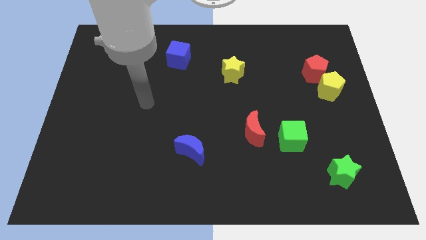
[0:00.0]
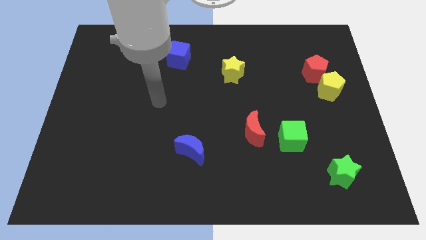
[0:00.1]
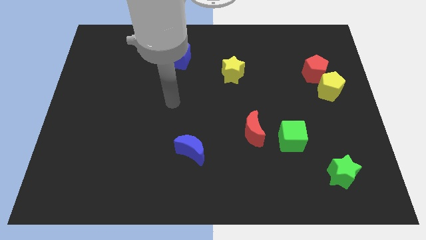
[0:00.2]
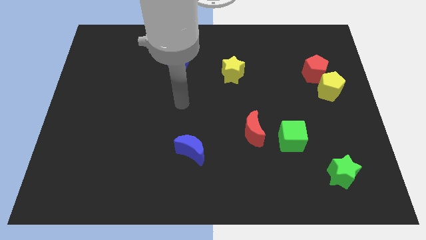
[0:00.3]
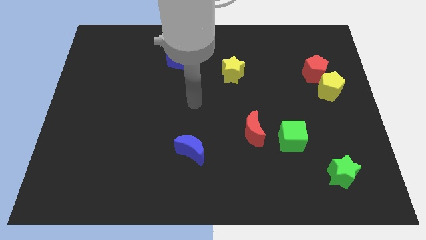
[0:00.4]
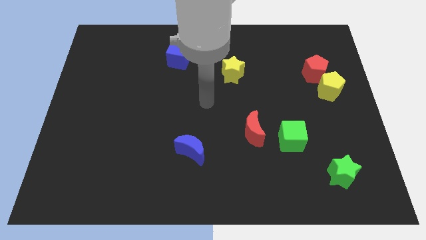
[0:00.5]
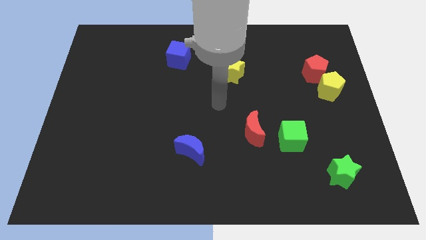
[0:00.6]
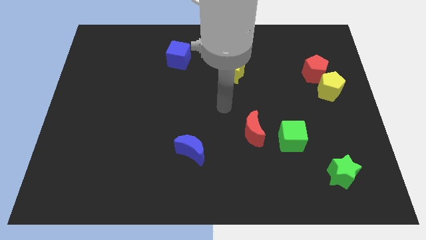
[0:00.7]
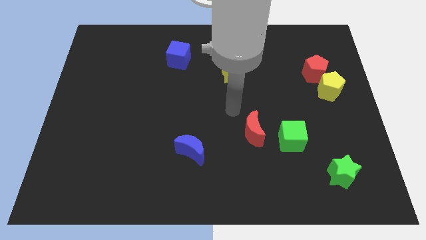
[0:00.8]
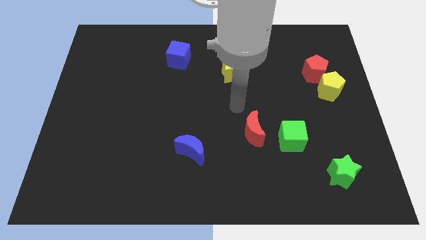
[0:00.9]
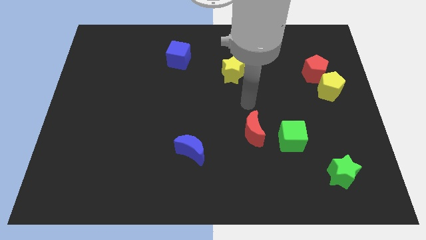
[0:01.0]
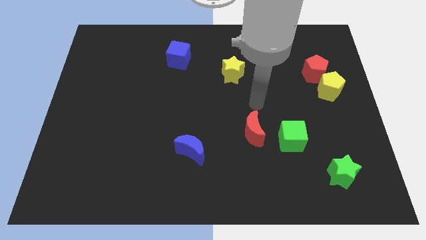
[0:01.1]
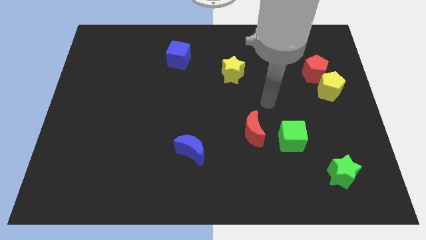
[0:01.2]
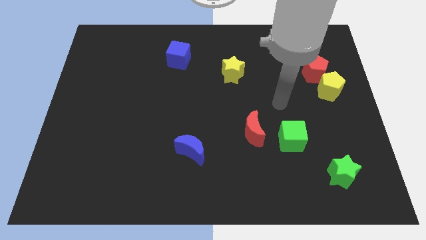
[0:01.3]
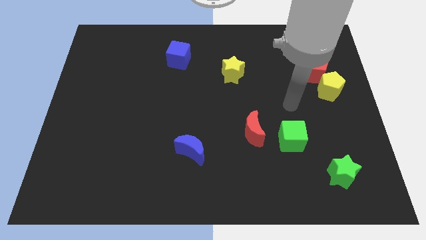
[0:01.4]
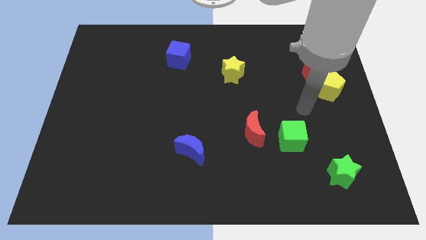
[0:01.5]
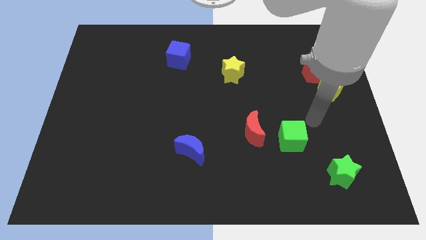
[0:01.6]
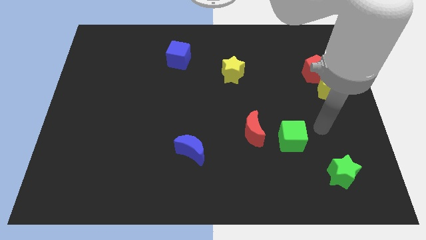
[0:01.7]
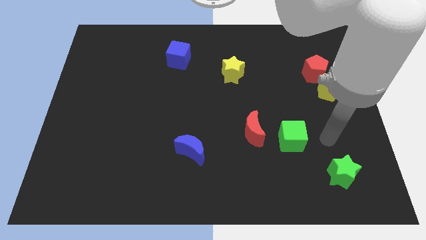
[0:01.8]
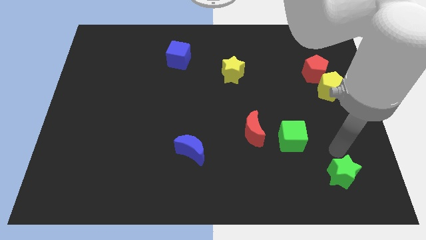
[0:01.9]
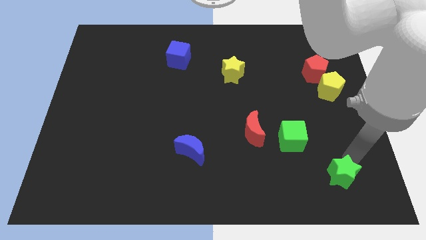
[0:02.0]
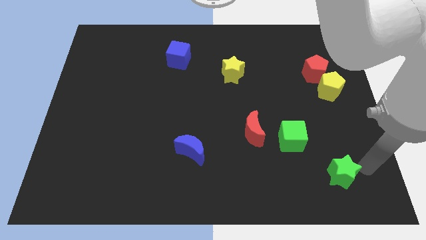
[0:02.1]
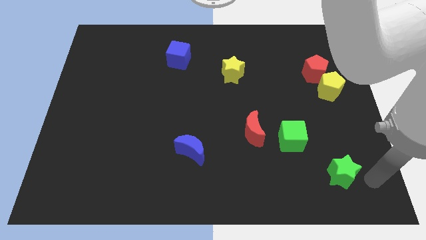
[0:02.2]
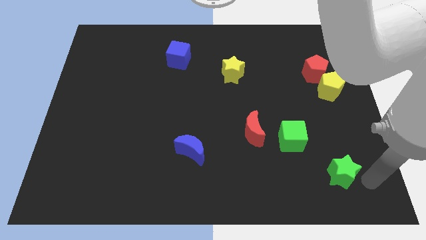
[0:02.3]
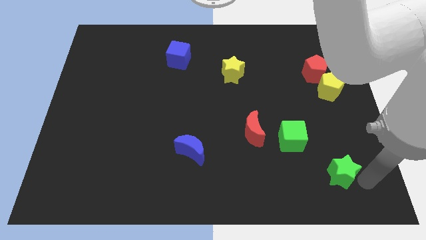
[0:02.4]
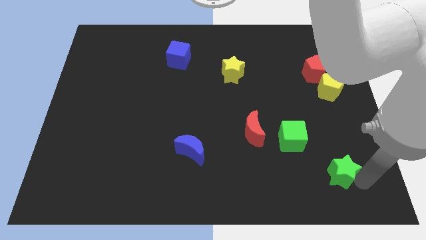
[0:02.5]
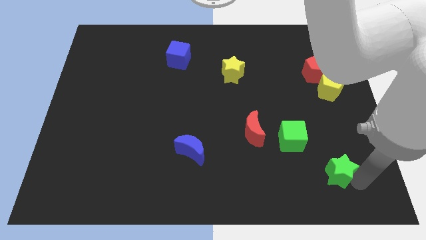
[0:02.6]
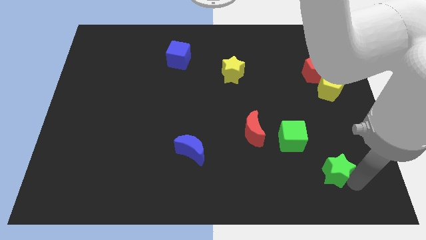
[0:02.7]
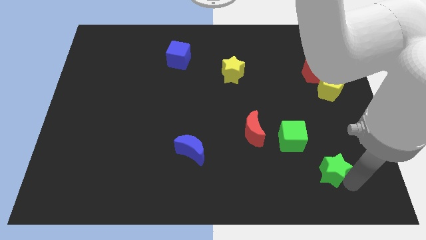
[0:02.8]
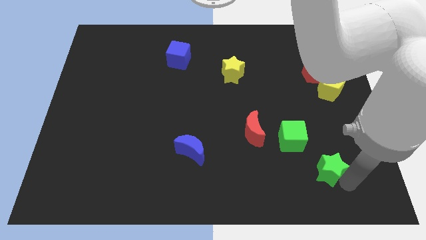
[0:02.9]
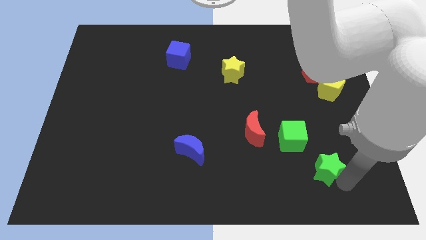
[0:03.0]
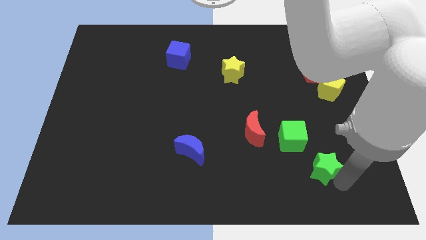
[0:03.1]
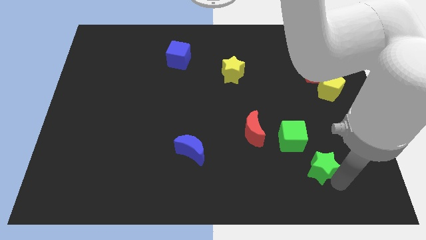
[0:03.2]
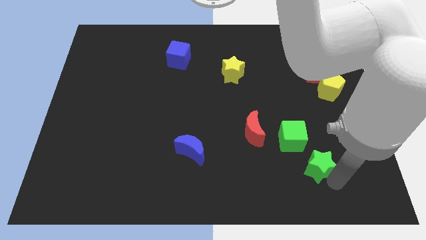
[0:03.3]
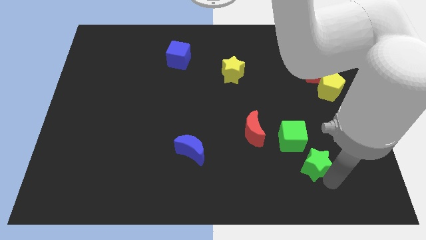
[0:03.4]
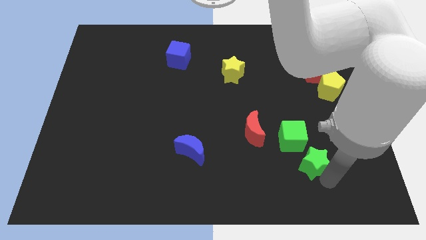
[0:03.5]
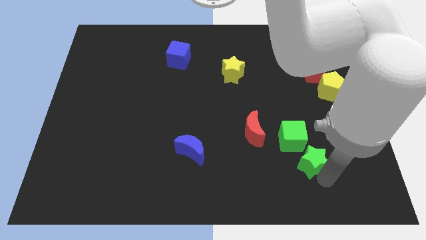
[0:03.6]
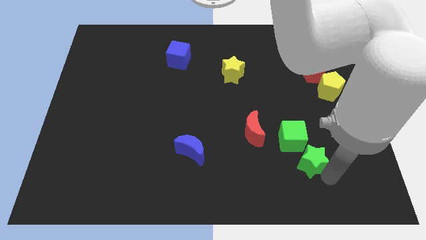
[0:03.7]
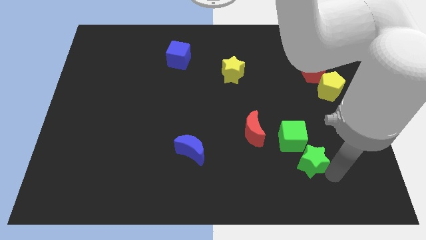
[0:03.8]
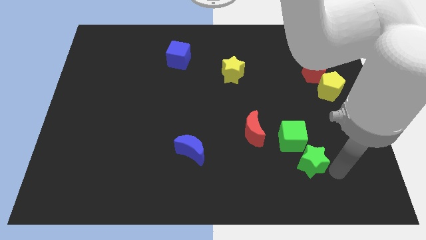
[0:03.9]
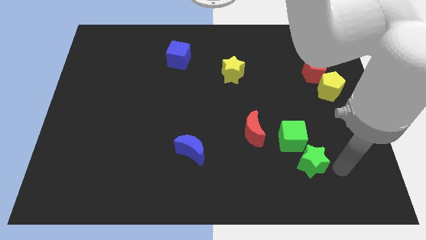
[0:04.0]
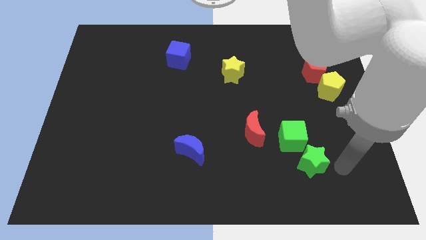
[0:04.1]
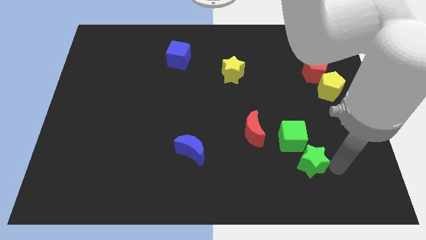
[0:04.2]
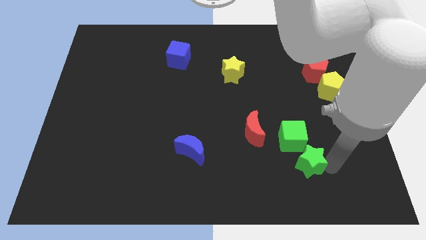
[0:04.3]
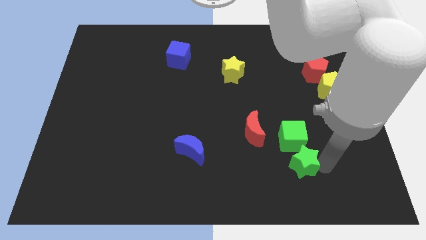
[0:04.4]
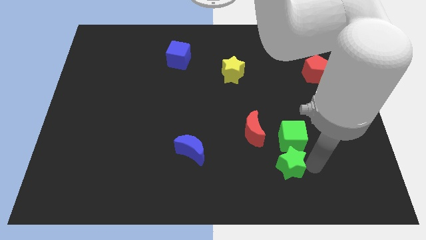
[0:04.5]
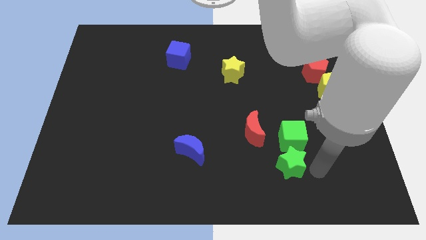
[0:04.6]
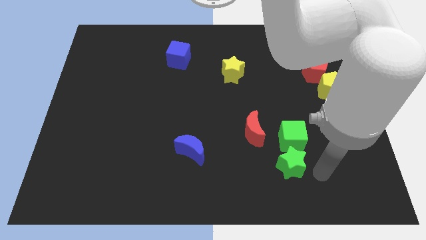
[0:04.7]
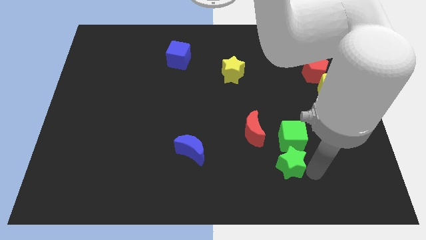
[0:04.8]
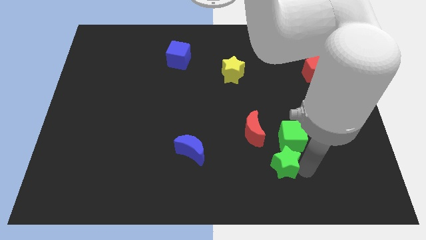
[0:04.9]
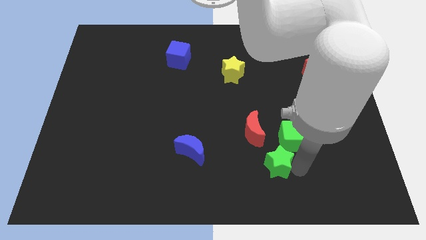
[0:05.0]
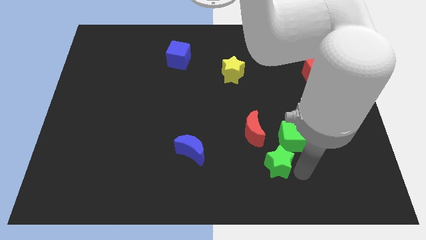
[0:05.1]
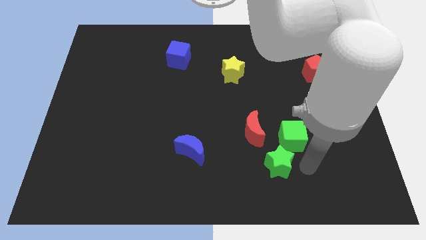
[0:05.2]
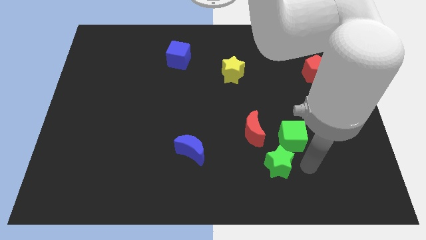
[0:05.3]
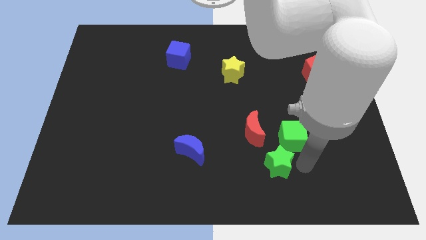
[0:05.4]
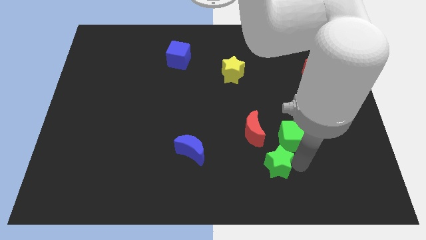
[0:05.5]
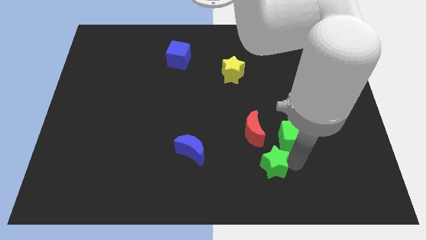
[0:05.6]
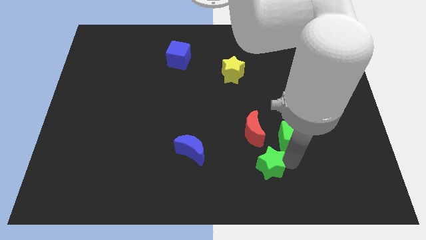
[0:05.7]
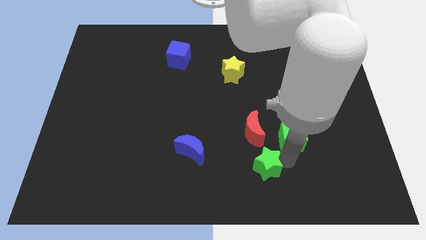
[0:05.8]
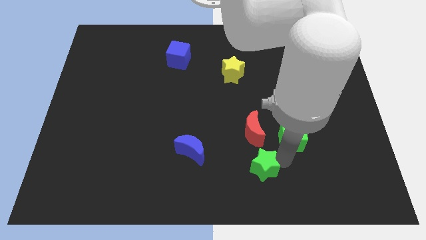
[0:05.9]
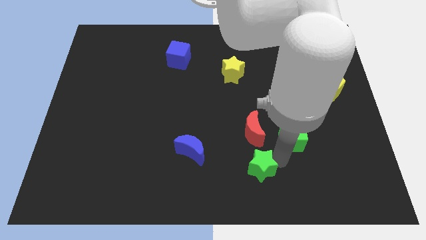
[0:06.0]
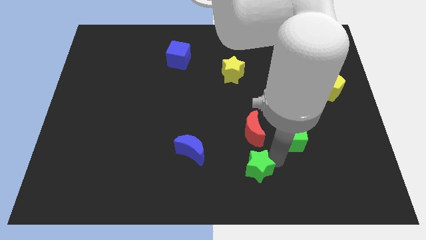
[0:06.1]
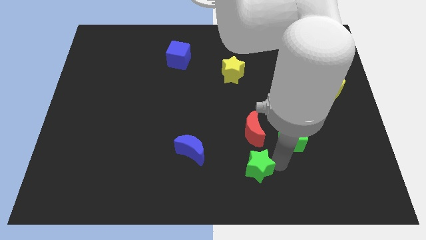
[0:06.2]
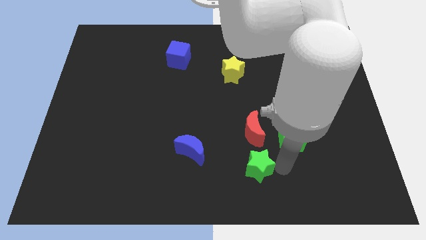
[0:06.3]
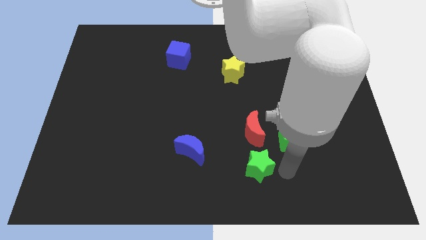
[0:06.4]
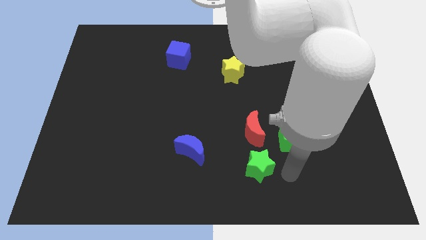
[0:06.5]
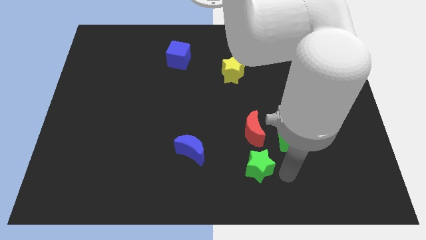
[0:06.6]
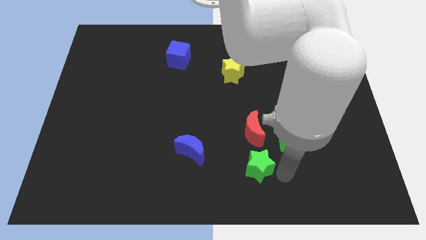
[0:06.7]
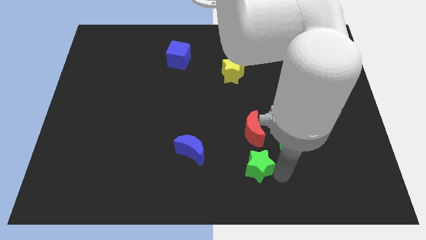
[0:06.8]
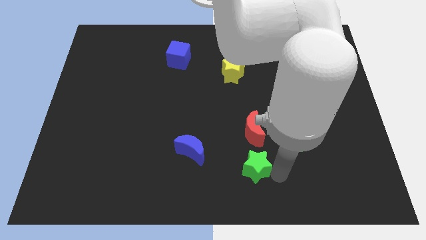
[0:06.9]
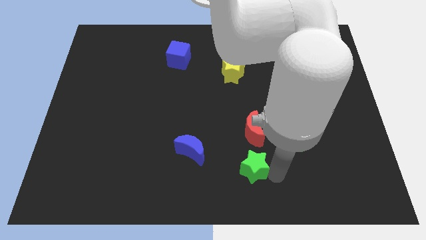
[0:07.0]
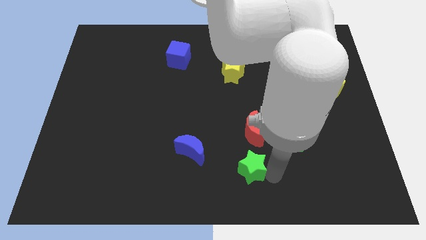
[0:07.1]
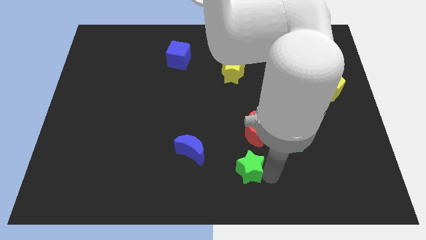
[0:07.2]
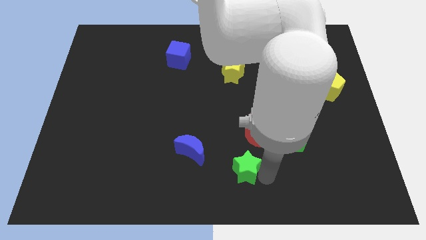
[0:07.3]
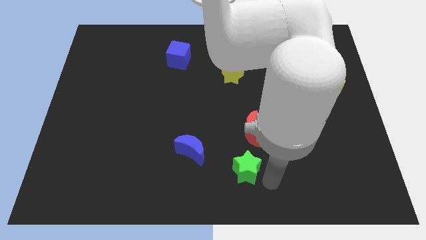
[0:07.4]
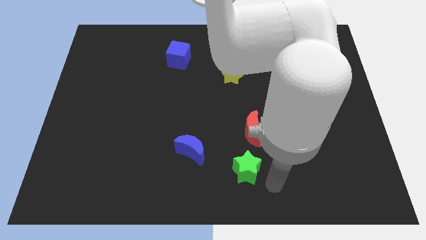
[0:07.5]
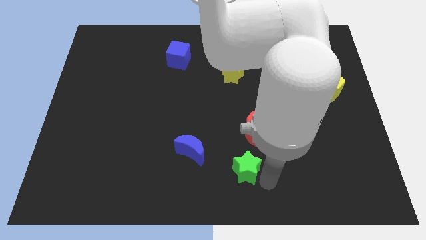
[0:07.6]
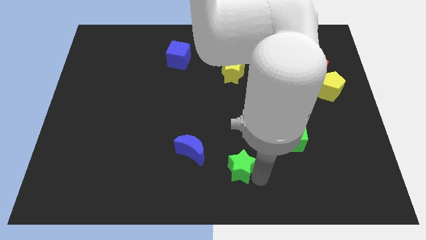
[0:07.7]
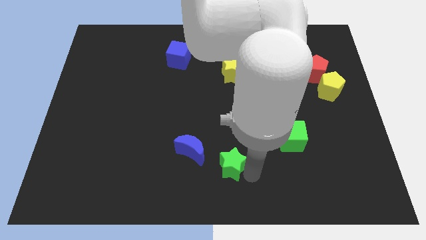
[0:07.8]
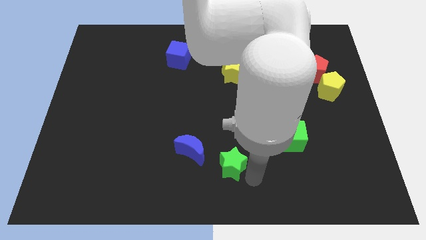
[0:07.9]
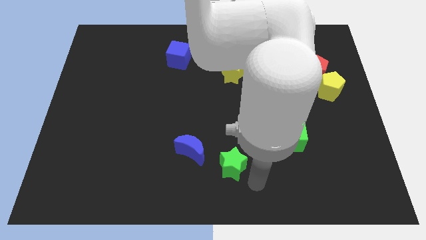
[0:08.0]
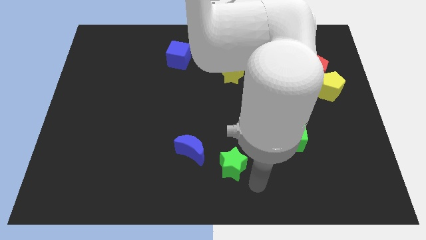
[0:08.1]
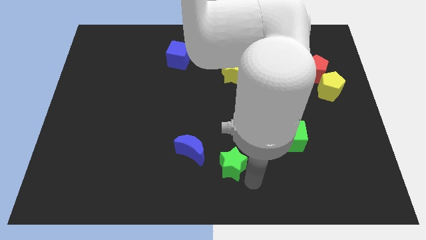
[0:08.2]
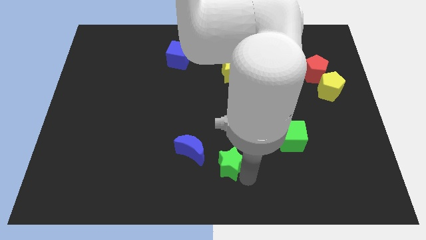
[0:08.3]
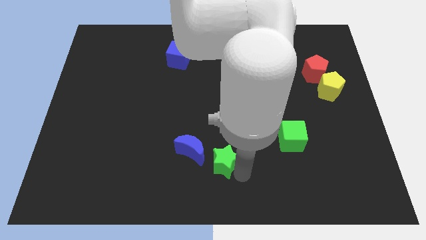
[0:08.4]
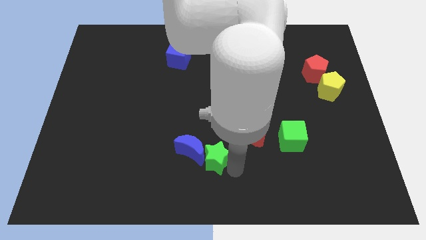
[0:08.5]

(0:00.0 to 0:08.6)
slide the green star close to the blue moon
